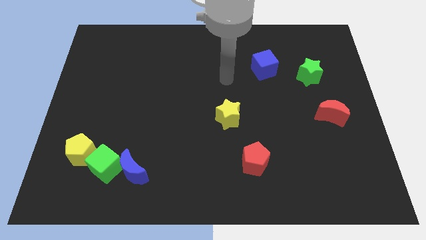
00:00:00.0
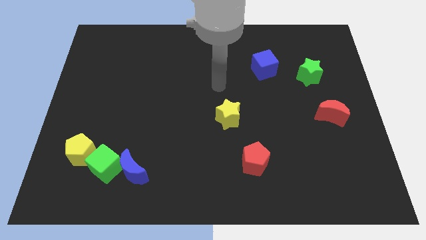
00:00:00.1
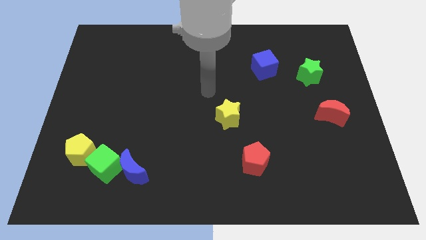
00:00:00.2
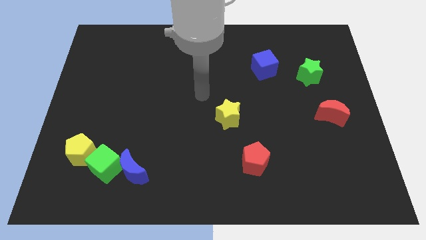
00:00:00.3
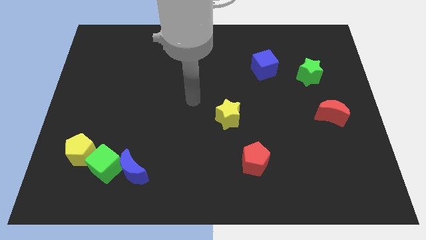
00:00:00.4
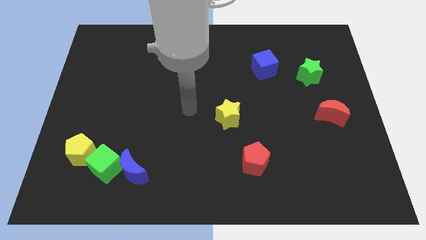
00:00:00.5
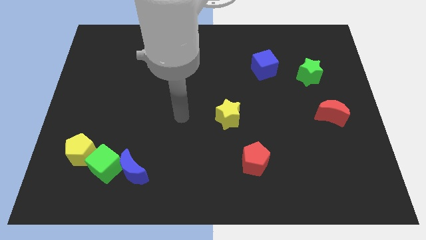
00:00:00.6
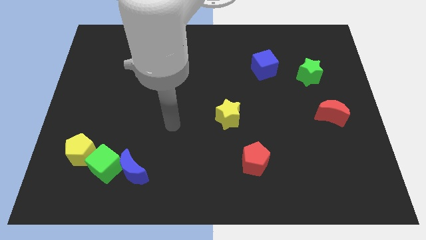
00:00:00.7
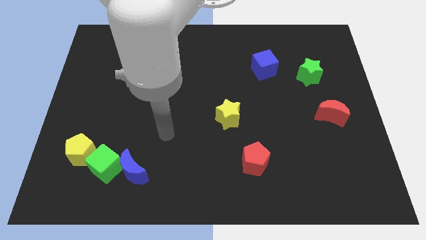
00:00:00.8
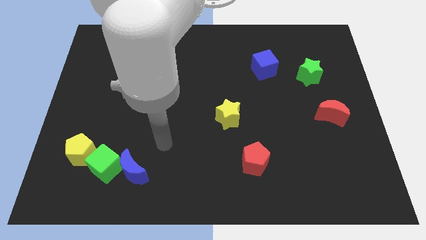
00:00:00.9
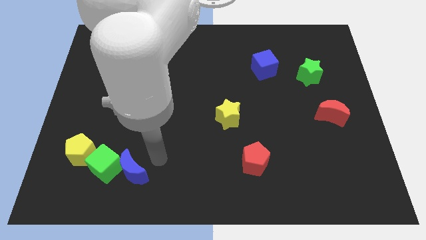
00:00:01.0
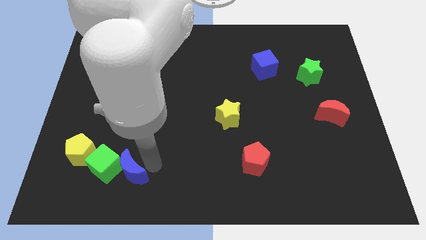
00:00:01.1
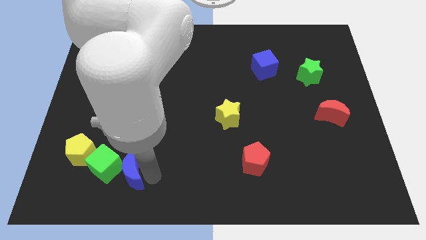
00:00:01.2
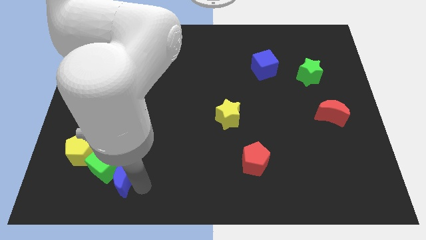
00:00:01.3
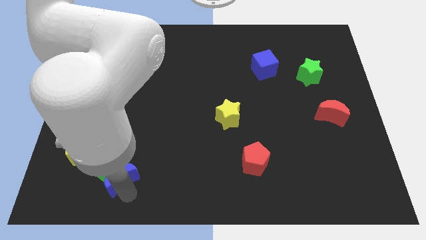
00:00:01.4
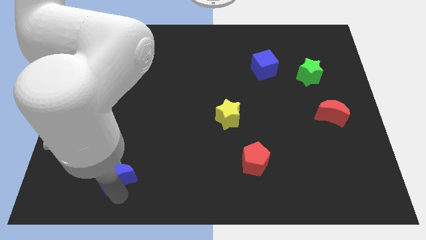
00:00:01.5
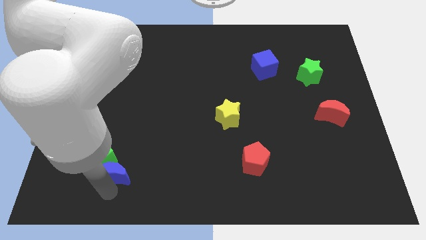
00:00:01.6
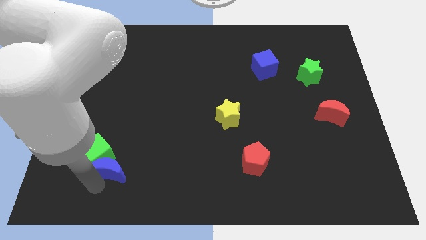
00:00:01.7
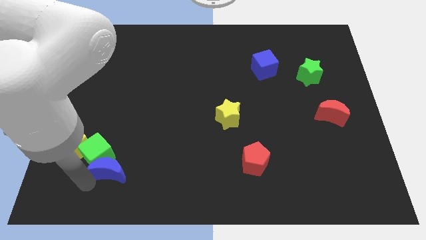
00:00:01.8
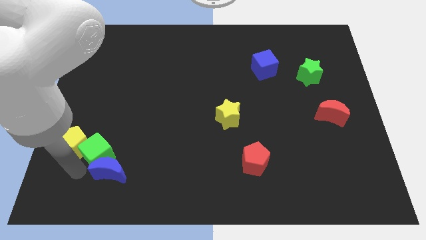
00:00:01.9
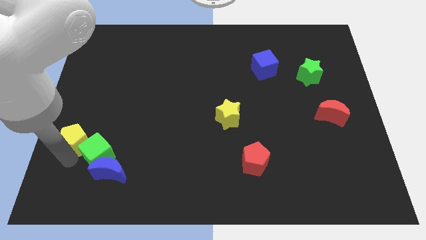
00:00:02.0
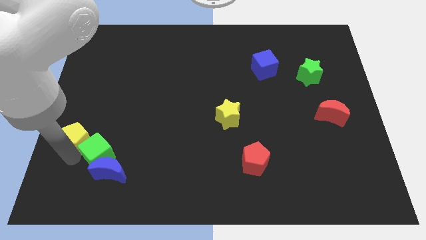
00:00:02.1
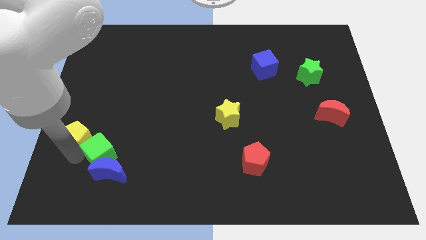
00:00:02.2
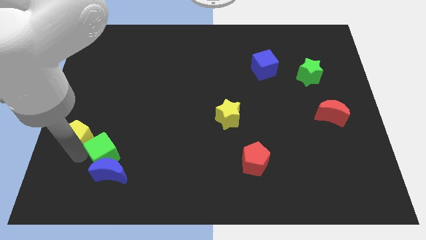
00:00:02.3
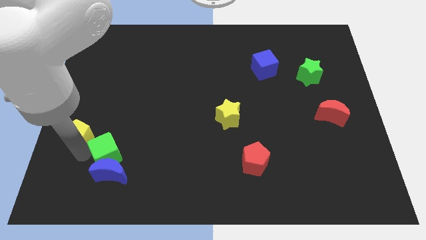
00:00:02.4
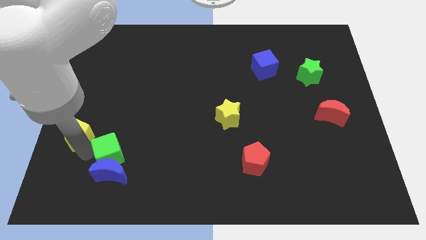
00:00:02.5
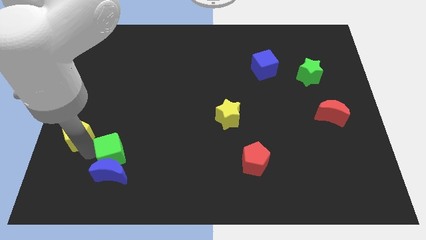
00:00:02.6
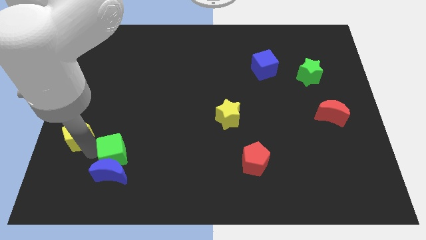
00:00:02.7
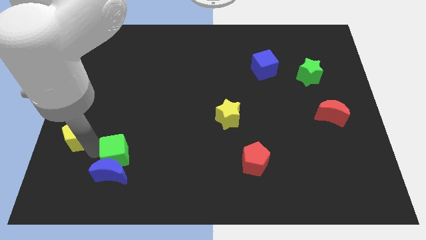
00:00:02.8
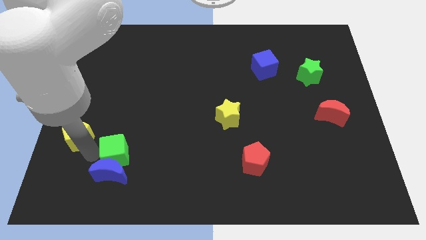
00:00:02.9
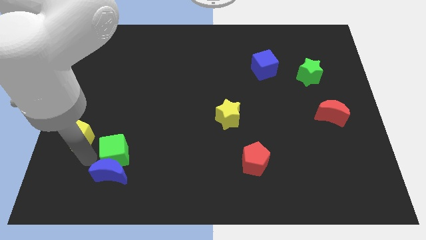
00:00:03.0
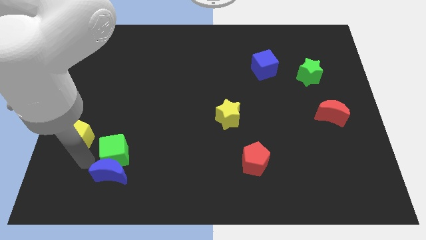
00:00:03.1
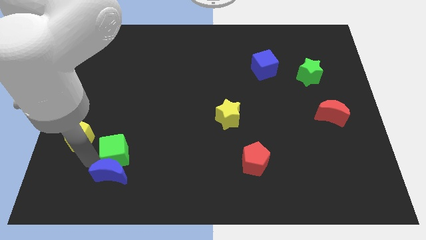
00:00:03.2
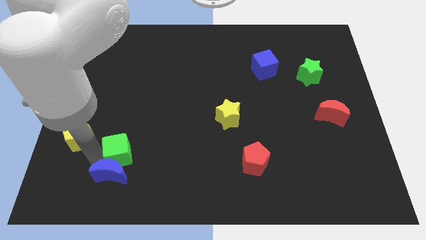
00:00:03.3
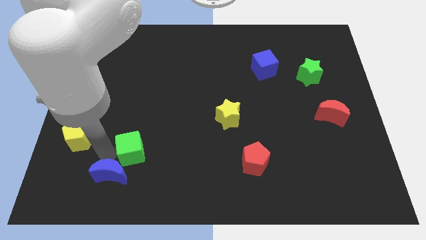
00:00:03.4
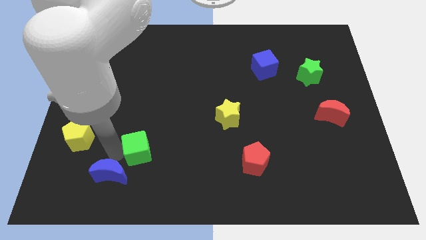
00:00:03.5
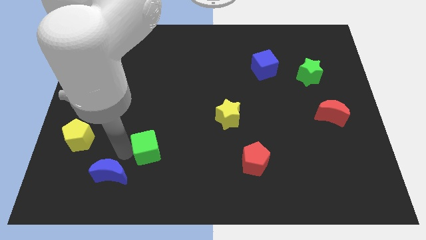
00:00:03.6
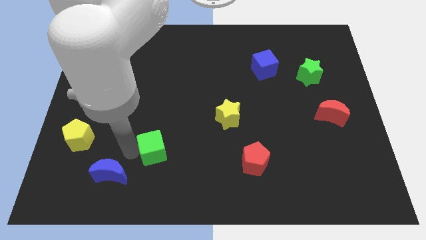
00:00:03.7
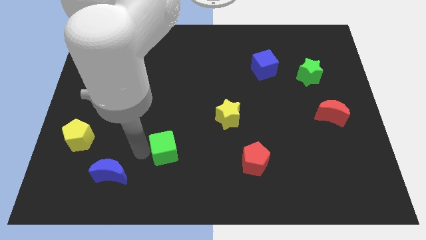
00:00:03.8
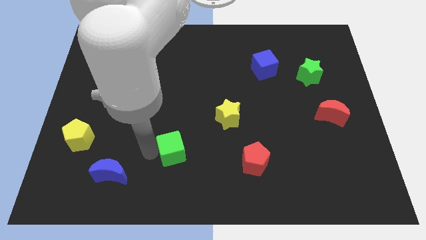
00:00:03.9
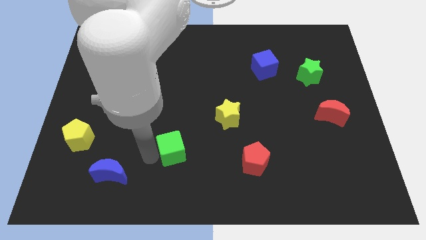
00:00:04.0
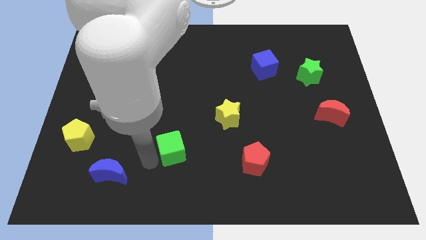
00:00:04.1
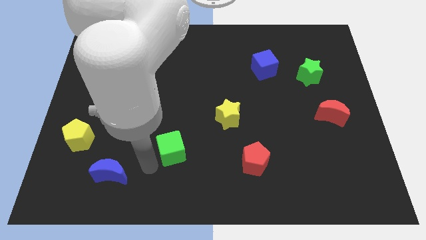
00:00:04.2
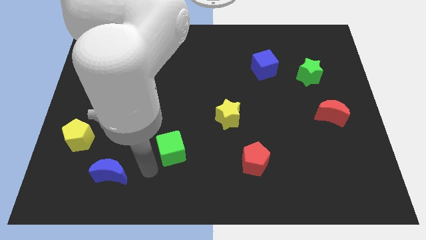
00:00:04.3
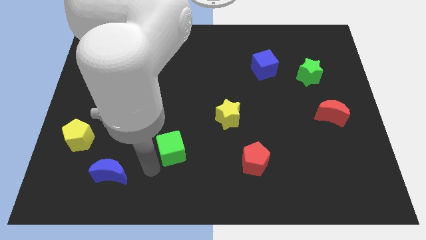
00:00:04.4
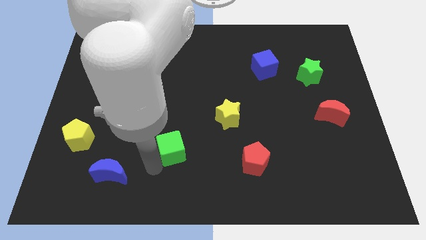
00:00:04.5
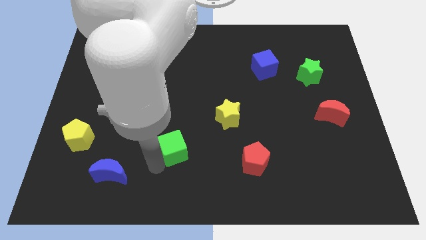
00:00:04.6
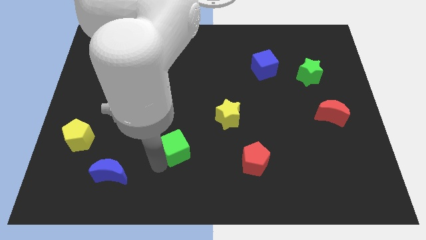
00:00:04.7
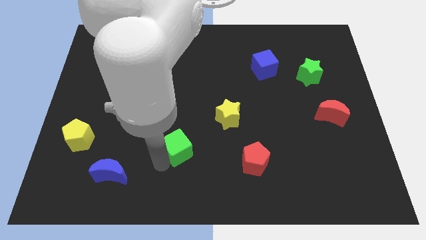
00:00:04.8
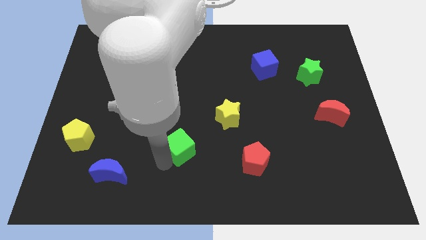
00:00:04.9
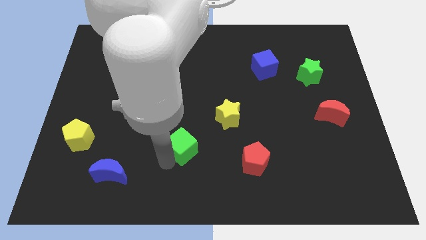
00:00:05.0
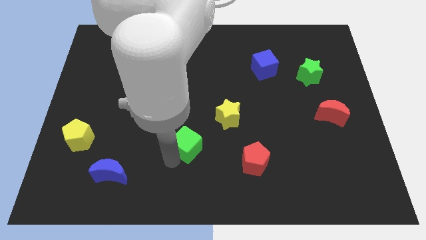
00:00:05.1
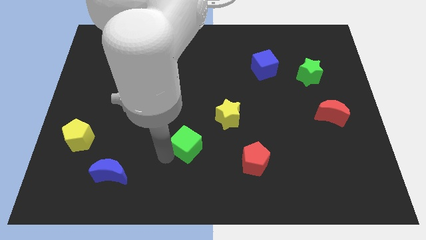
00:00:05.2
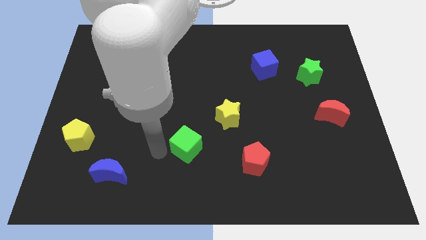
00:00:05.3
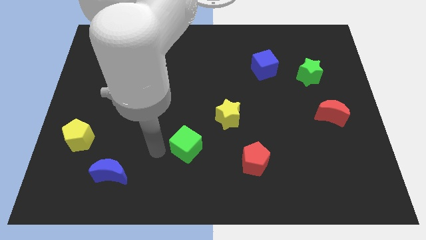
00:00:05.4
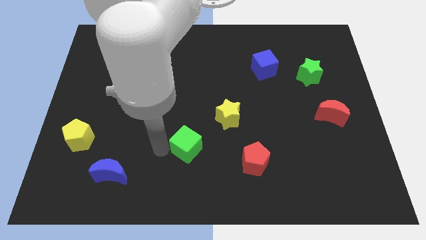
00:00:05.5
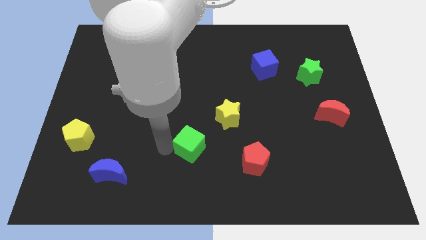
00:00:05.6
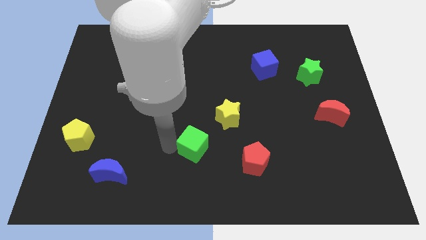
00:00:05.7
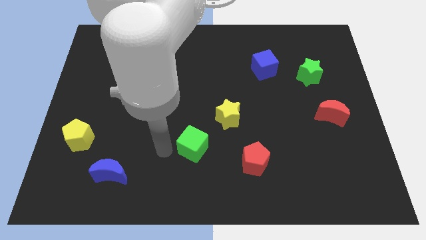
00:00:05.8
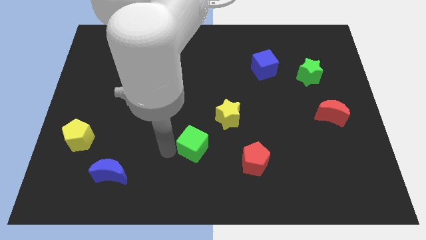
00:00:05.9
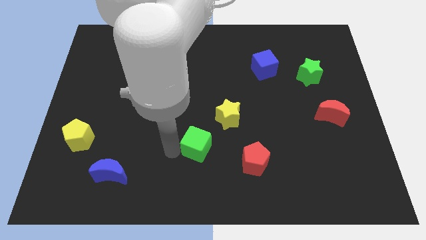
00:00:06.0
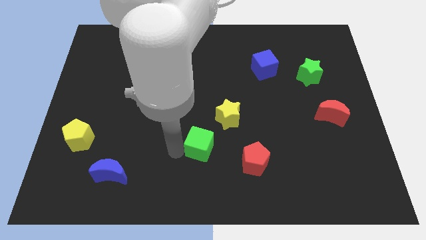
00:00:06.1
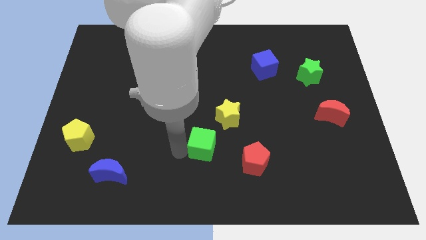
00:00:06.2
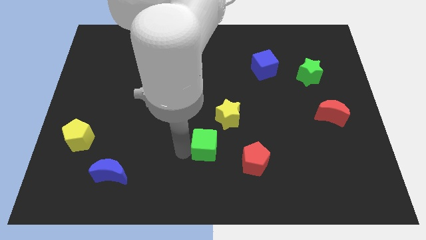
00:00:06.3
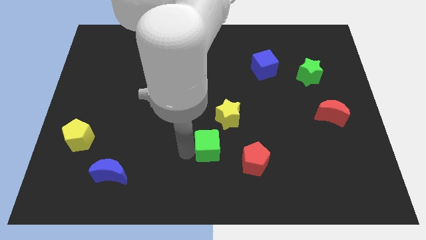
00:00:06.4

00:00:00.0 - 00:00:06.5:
put the green cube to the top left side of the red pentagon

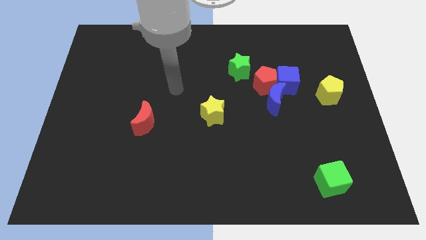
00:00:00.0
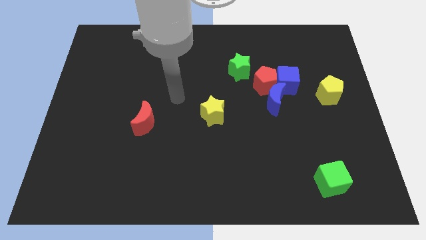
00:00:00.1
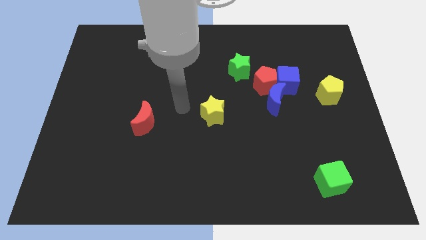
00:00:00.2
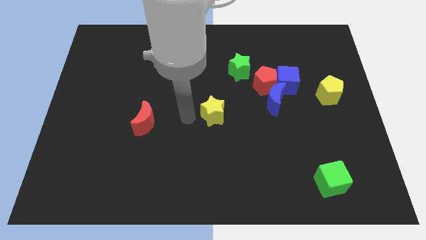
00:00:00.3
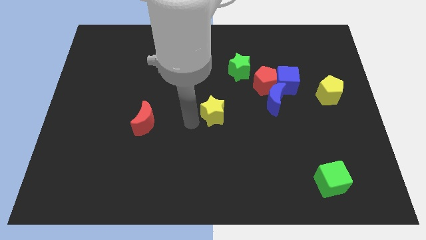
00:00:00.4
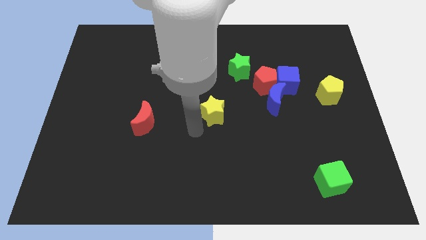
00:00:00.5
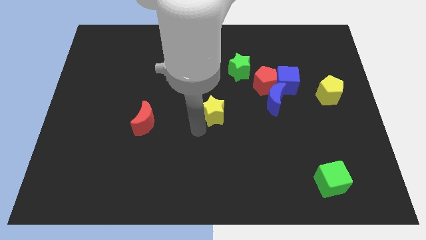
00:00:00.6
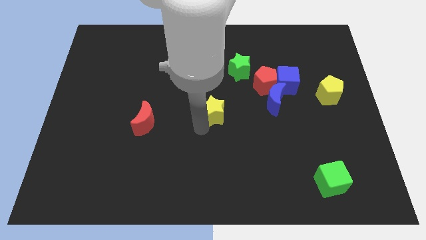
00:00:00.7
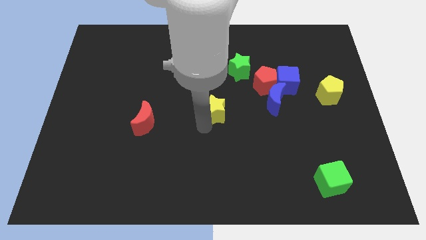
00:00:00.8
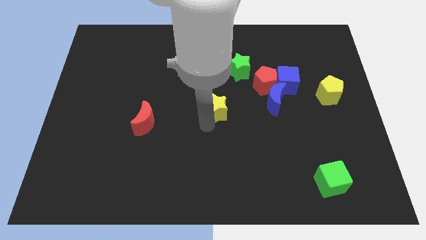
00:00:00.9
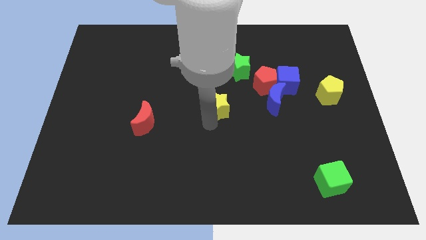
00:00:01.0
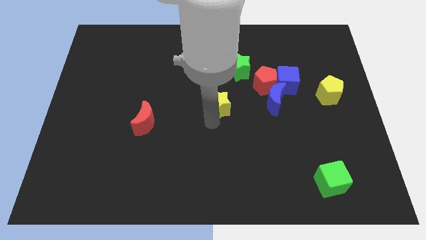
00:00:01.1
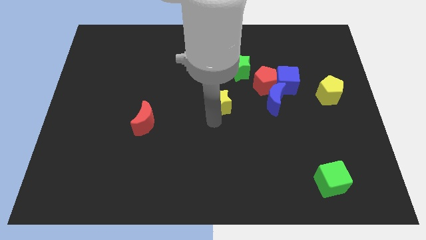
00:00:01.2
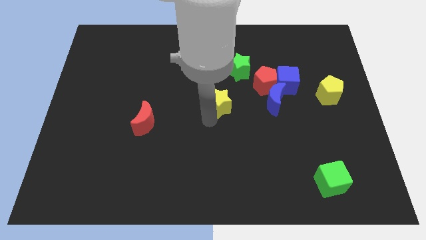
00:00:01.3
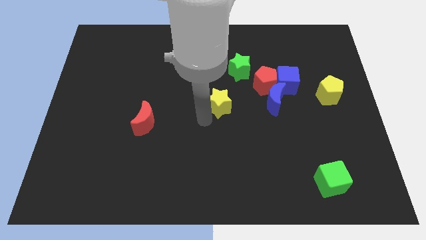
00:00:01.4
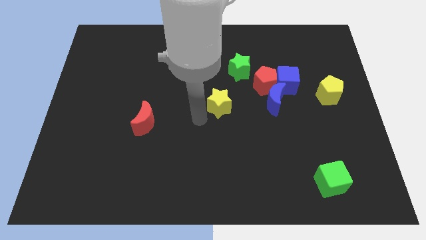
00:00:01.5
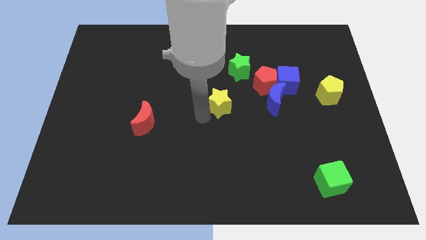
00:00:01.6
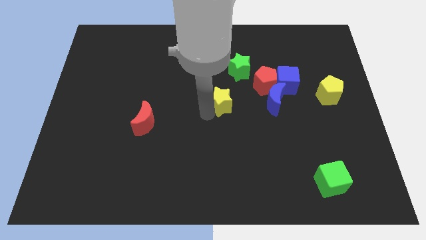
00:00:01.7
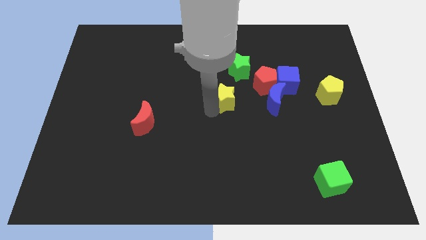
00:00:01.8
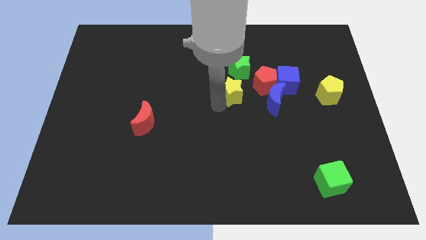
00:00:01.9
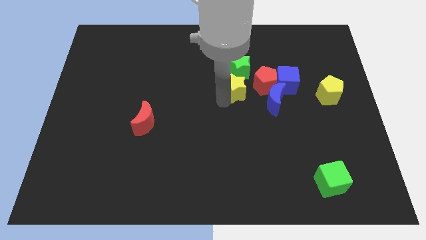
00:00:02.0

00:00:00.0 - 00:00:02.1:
move the yellow star to the top left of the blue moon
